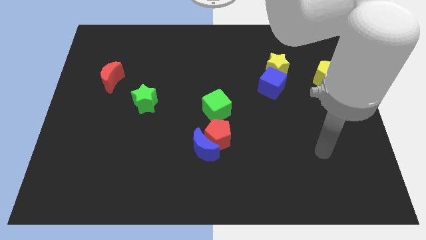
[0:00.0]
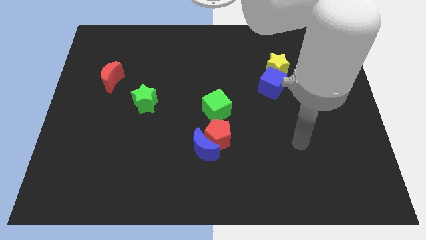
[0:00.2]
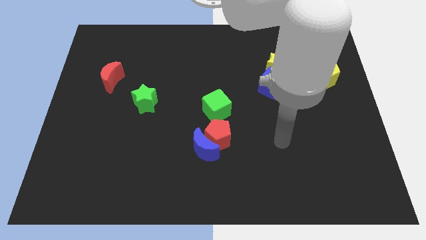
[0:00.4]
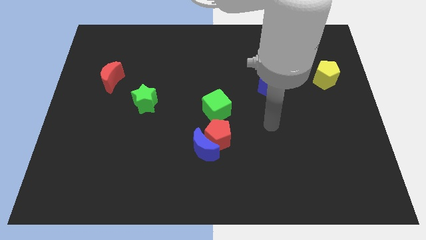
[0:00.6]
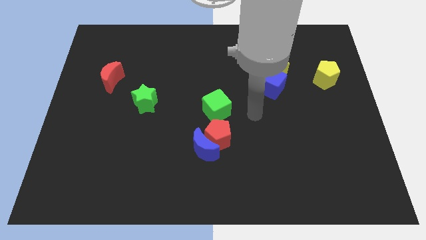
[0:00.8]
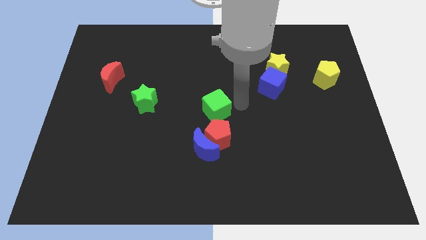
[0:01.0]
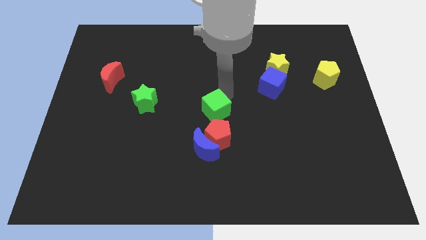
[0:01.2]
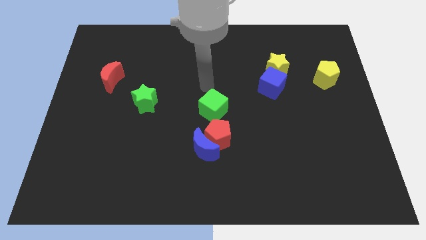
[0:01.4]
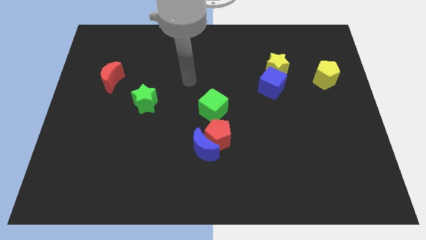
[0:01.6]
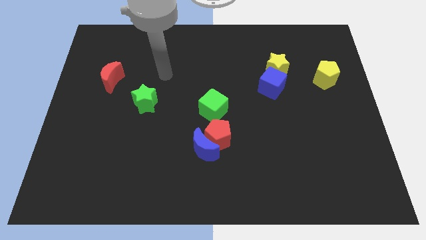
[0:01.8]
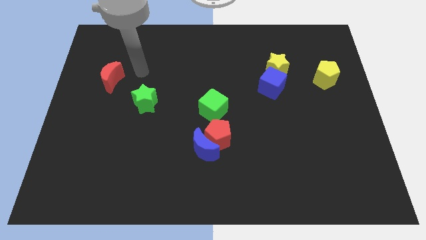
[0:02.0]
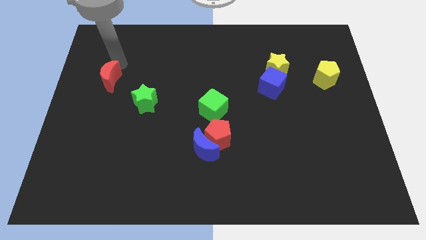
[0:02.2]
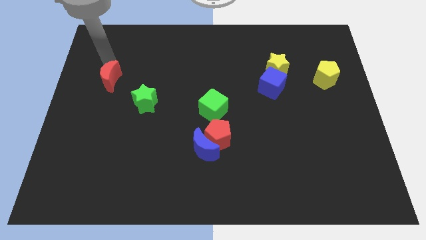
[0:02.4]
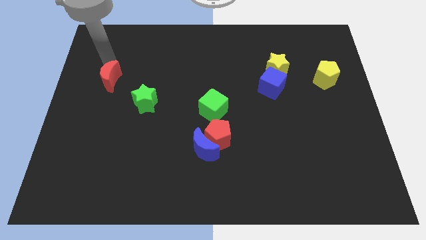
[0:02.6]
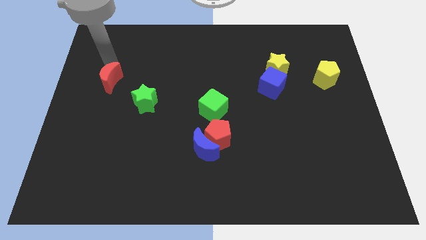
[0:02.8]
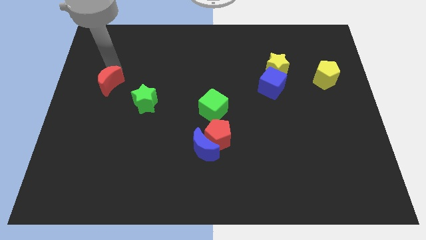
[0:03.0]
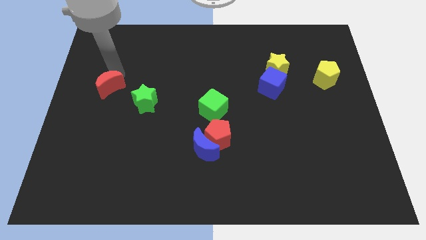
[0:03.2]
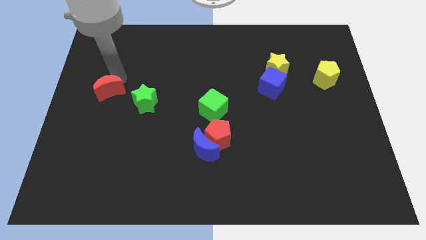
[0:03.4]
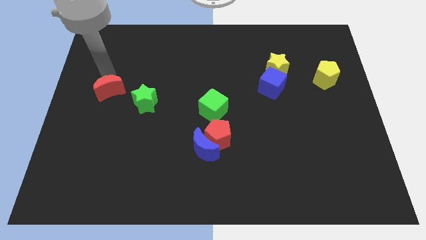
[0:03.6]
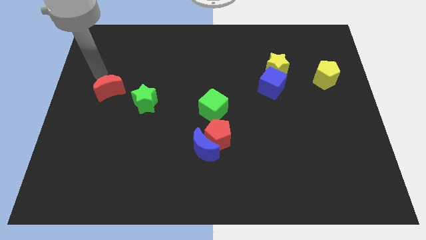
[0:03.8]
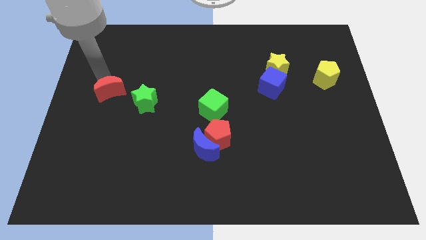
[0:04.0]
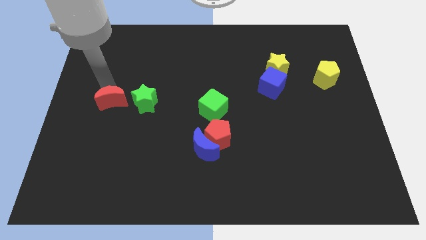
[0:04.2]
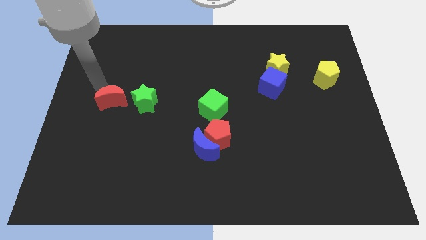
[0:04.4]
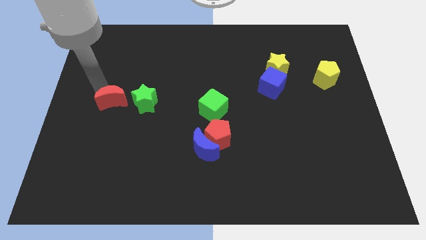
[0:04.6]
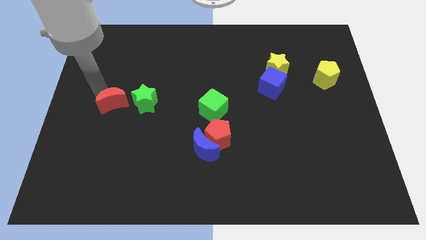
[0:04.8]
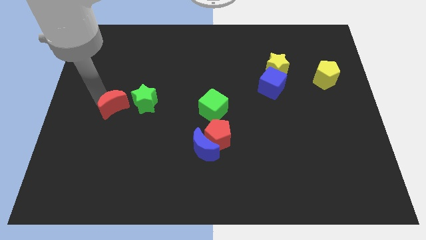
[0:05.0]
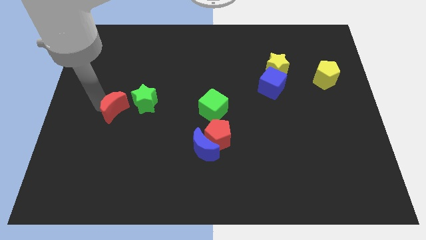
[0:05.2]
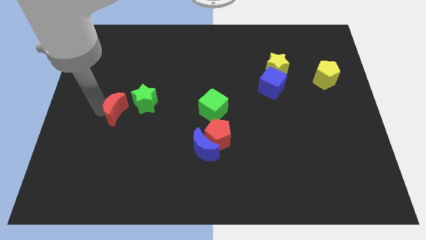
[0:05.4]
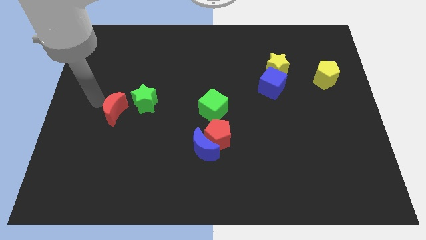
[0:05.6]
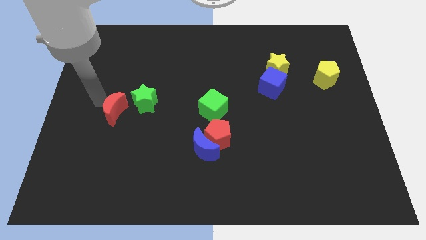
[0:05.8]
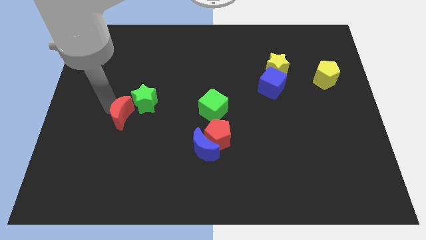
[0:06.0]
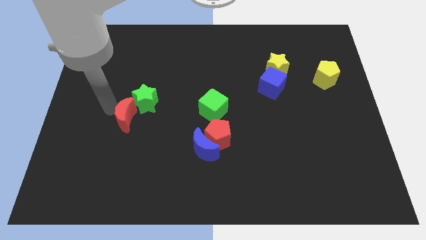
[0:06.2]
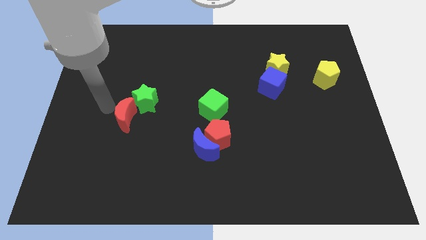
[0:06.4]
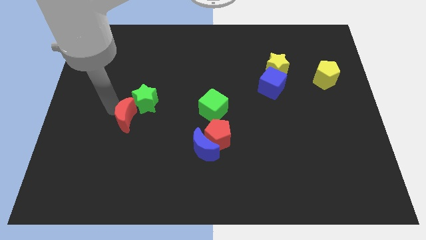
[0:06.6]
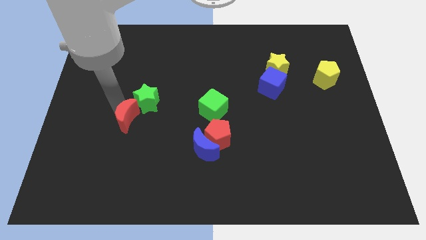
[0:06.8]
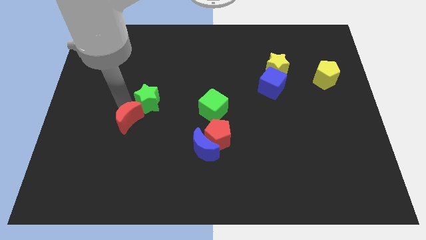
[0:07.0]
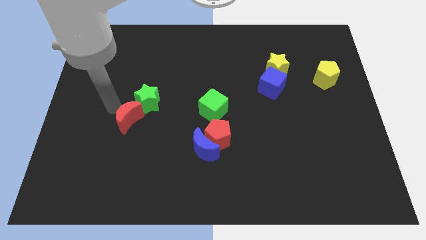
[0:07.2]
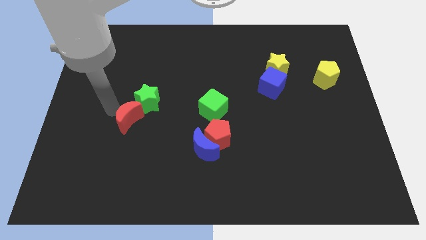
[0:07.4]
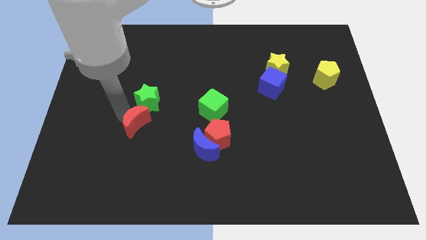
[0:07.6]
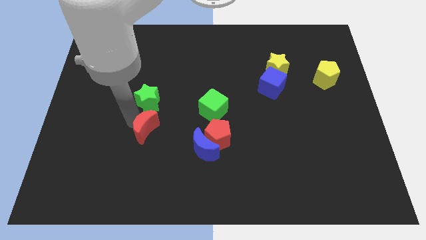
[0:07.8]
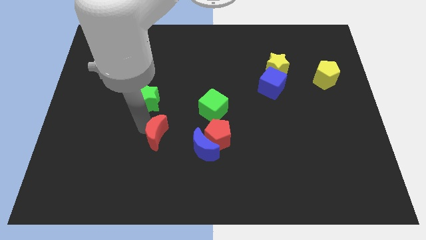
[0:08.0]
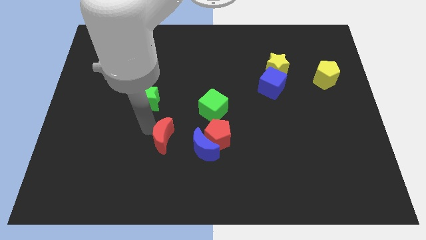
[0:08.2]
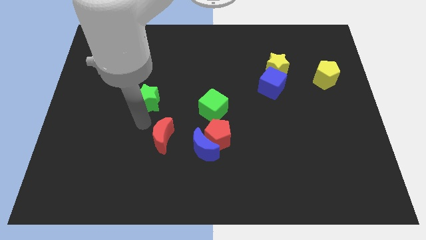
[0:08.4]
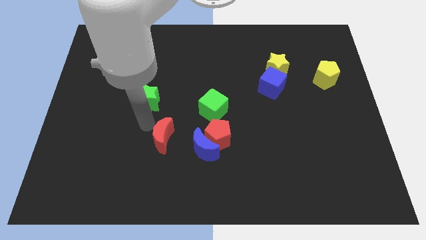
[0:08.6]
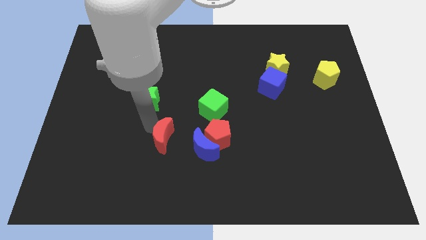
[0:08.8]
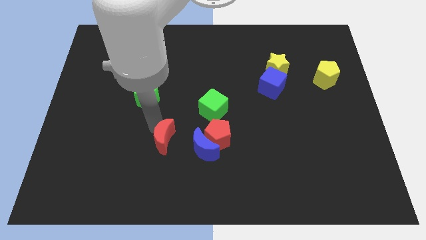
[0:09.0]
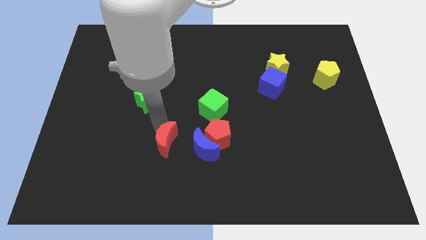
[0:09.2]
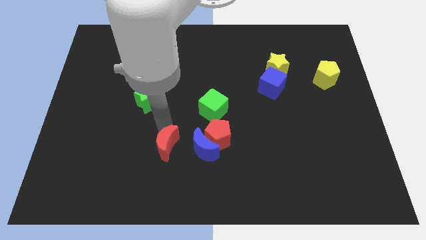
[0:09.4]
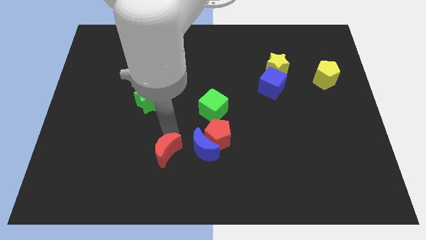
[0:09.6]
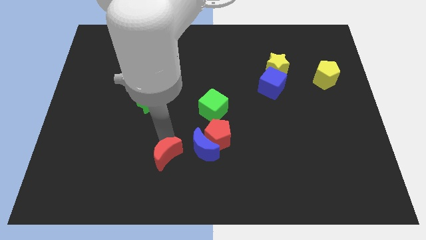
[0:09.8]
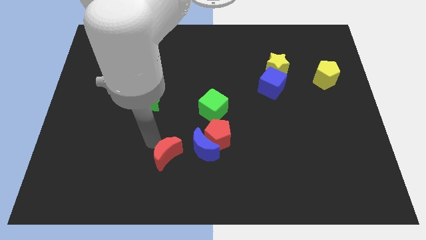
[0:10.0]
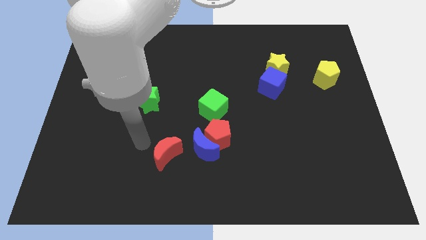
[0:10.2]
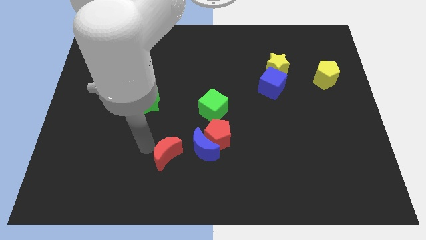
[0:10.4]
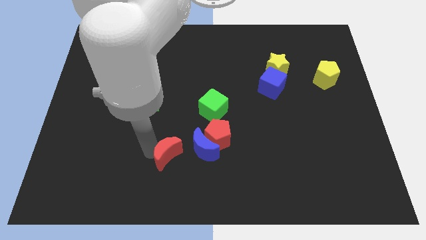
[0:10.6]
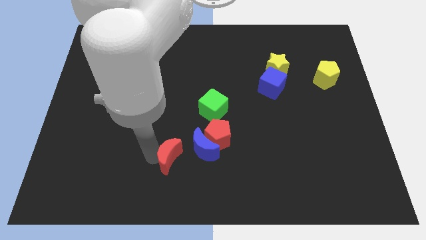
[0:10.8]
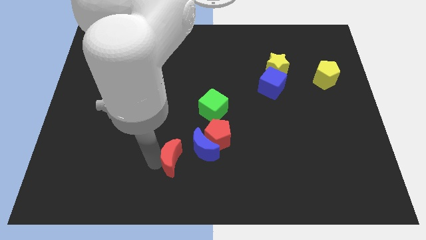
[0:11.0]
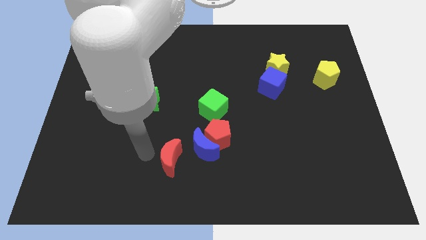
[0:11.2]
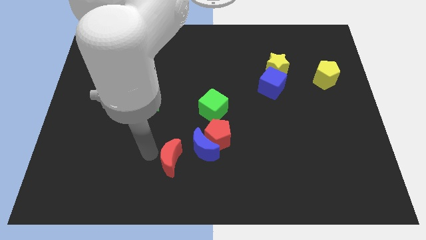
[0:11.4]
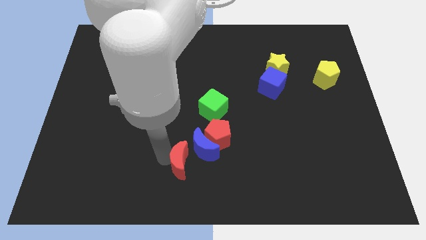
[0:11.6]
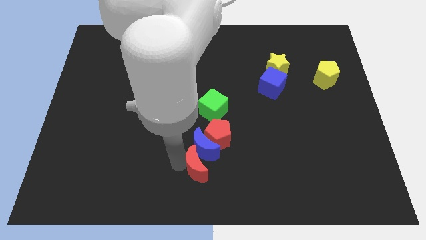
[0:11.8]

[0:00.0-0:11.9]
slide the red moon diagonally down and to the right of the blue moon

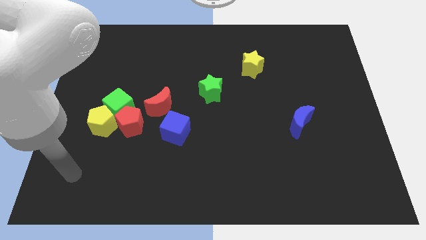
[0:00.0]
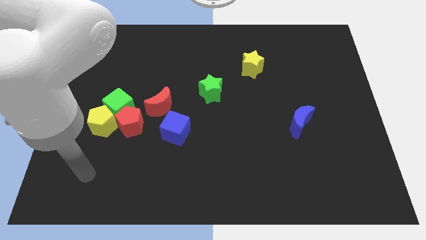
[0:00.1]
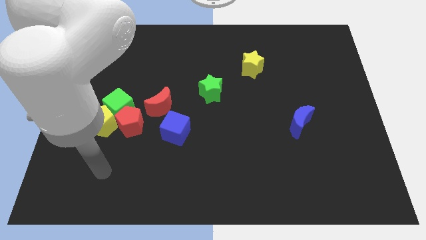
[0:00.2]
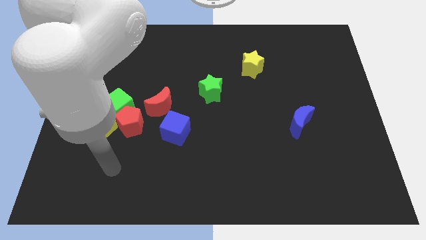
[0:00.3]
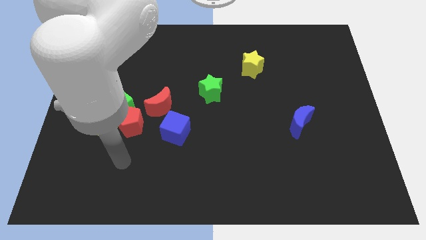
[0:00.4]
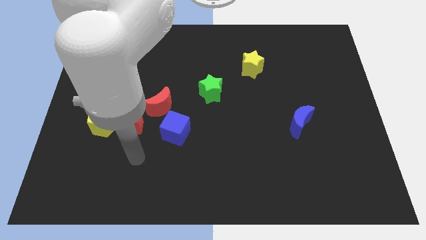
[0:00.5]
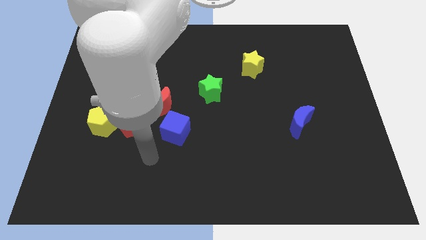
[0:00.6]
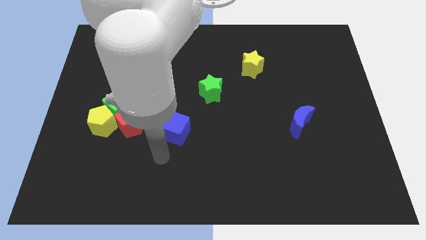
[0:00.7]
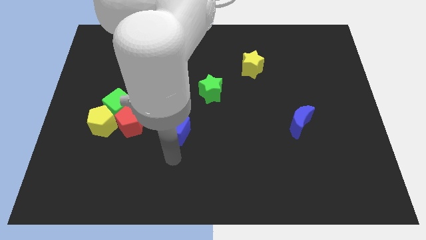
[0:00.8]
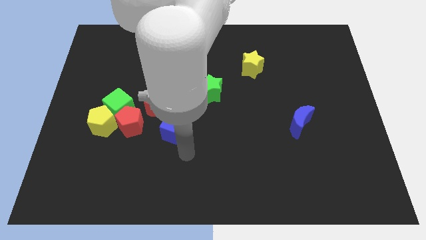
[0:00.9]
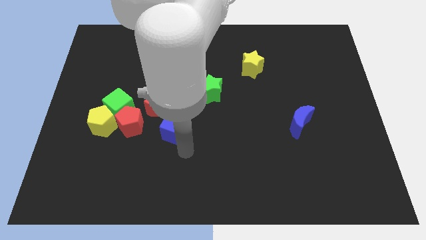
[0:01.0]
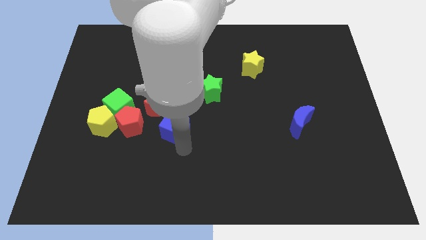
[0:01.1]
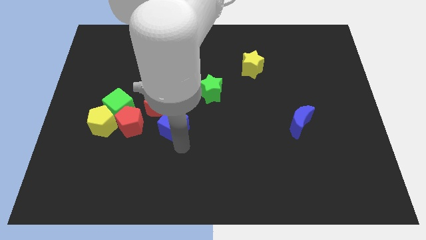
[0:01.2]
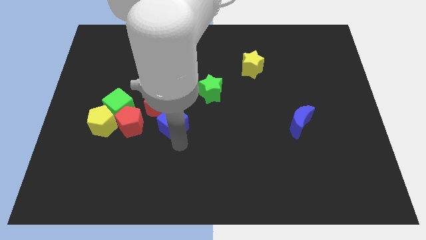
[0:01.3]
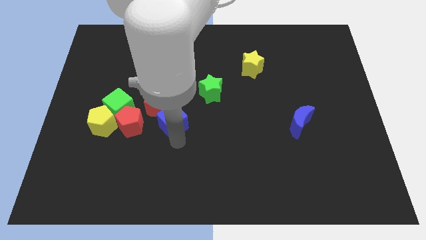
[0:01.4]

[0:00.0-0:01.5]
slide the blue cube to the right side of the green cube

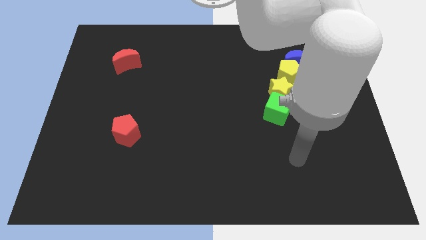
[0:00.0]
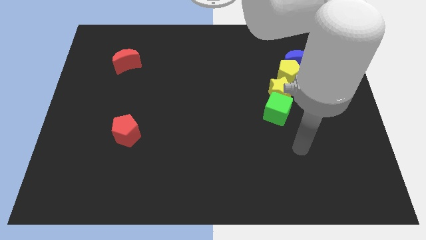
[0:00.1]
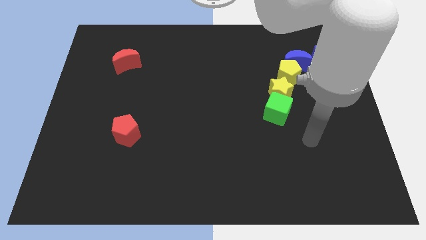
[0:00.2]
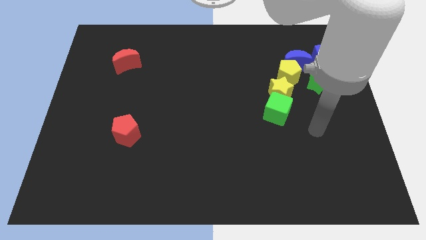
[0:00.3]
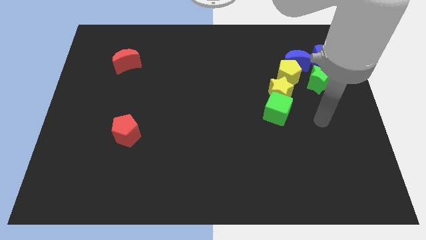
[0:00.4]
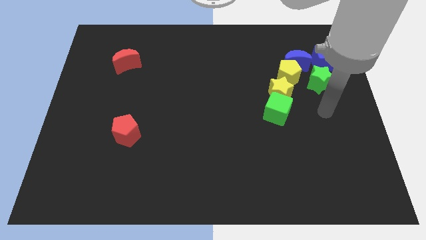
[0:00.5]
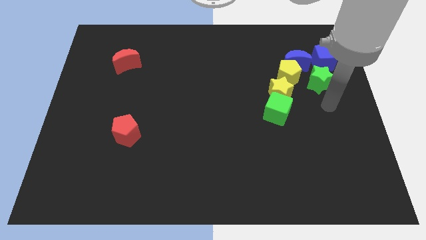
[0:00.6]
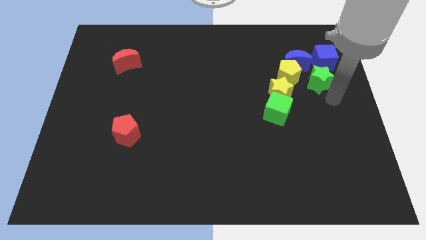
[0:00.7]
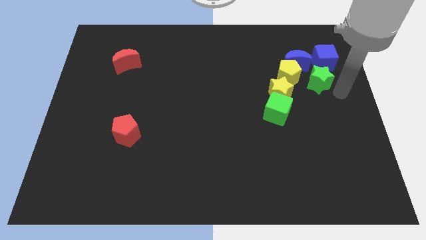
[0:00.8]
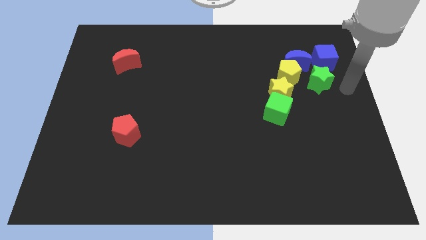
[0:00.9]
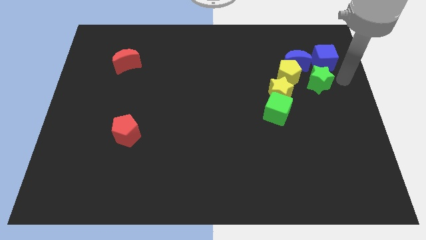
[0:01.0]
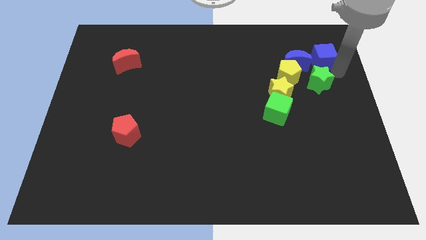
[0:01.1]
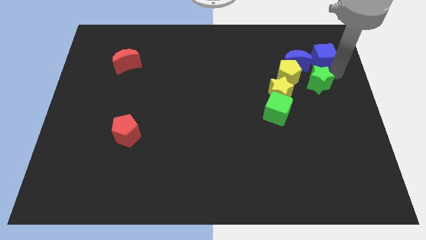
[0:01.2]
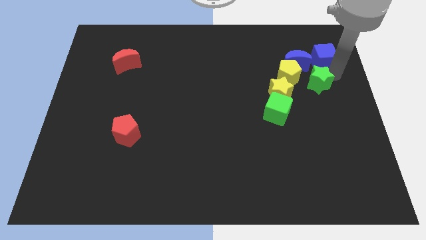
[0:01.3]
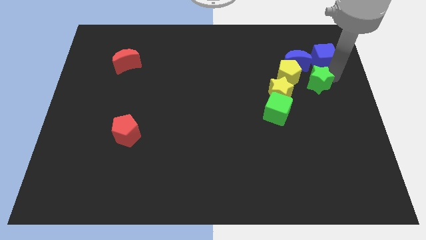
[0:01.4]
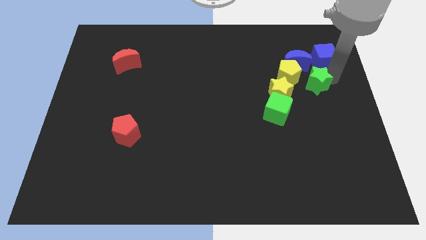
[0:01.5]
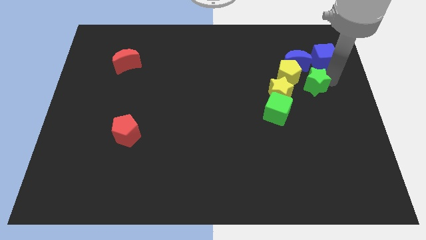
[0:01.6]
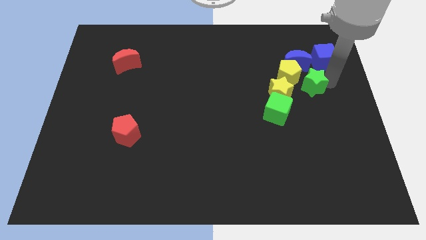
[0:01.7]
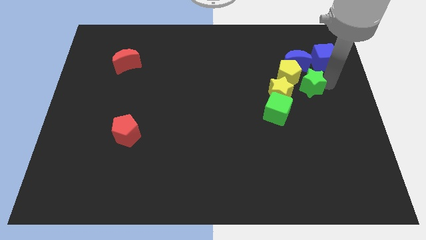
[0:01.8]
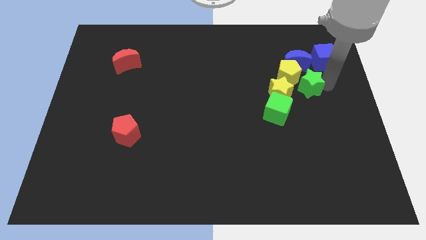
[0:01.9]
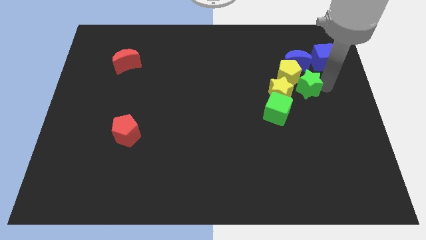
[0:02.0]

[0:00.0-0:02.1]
slide the green star to the bottom of the yellow pentagon
